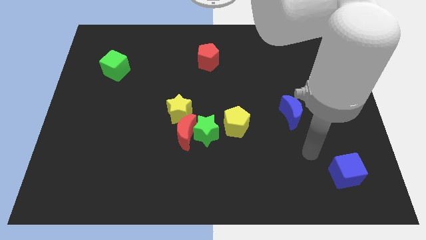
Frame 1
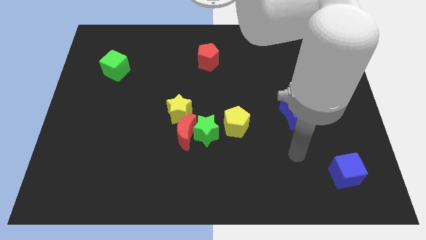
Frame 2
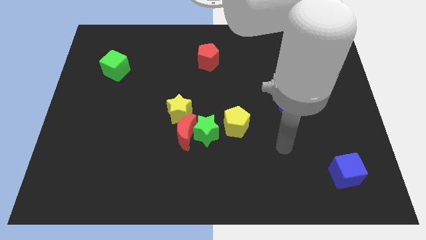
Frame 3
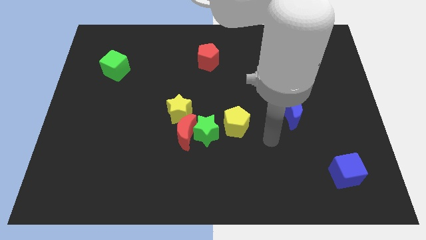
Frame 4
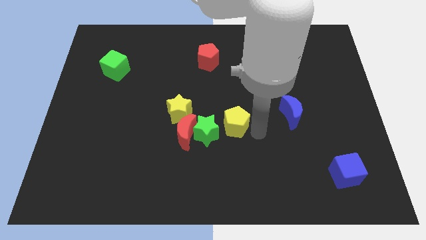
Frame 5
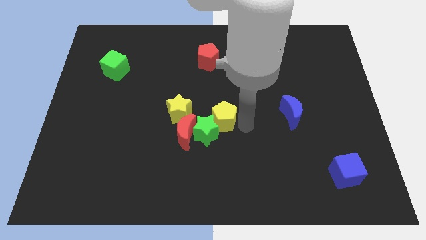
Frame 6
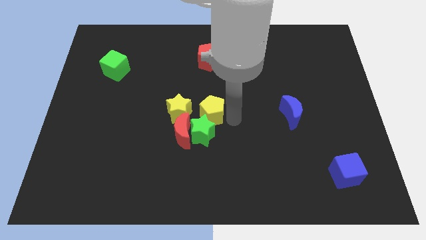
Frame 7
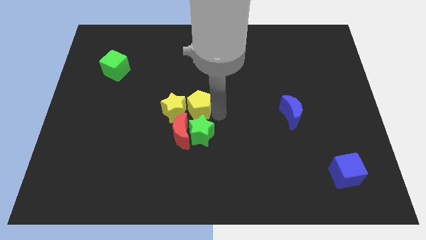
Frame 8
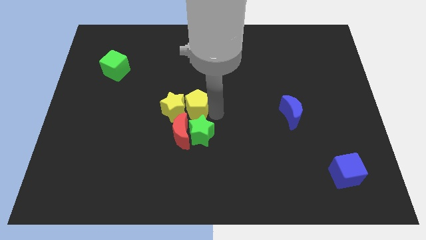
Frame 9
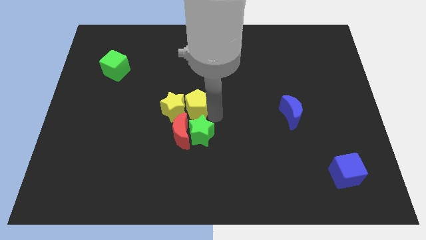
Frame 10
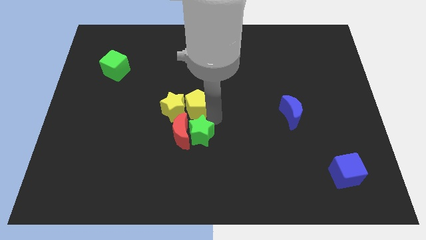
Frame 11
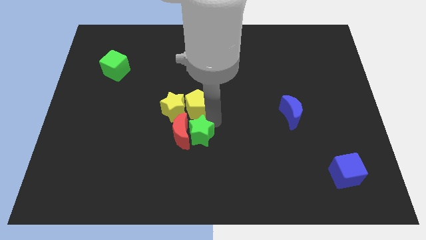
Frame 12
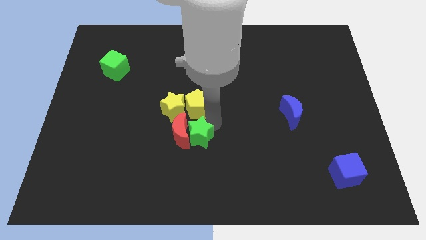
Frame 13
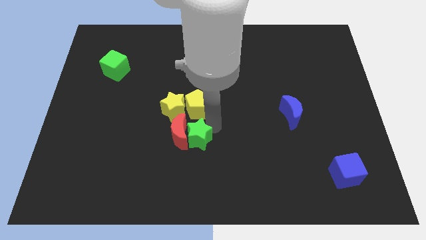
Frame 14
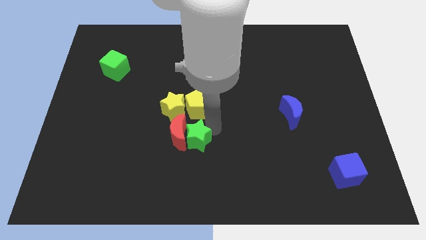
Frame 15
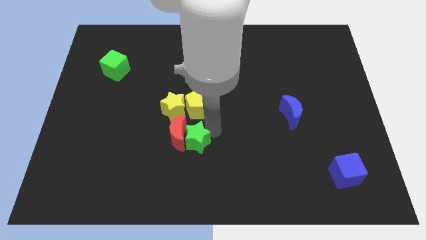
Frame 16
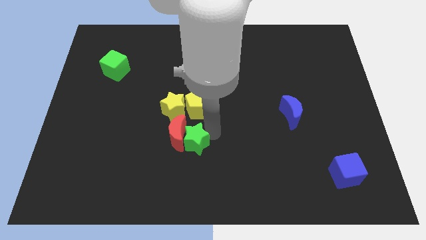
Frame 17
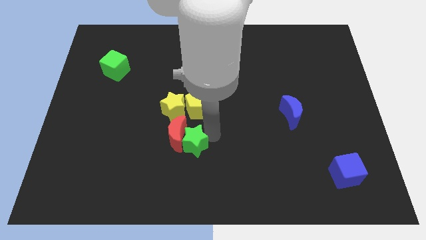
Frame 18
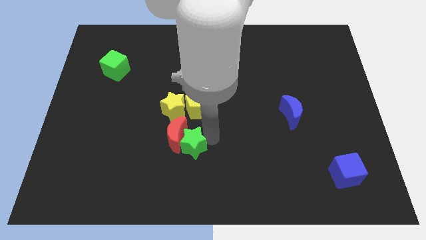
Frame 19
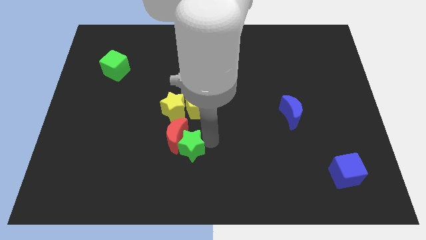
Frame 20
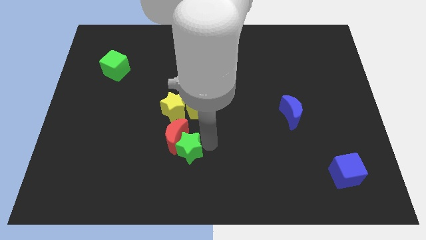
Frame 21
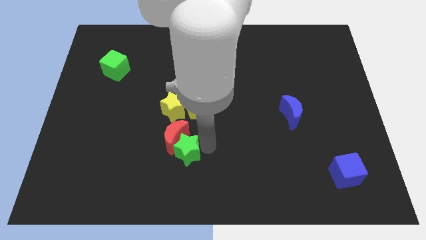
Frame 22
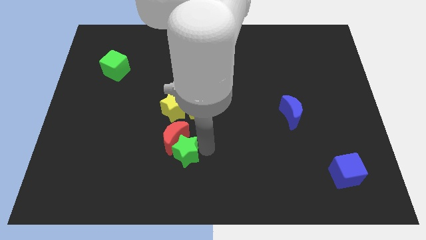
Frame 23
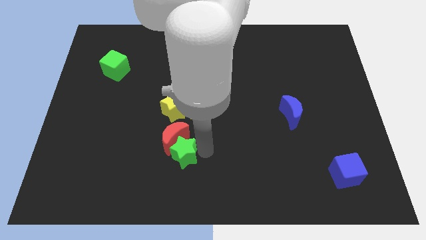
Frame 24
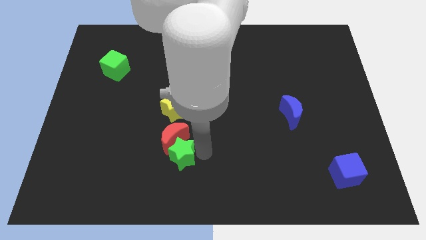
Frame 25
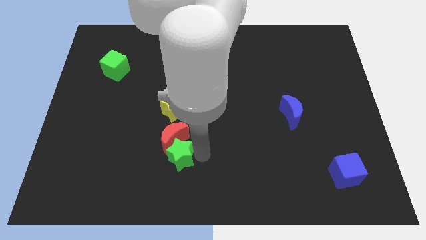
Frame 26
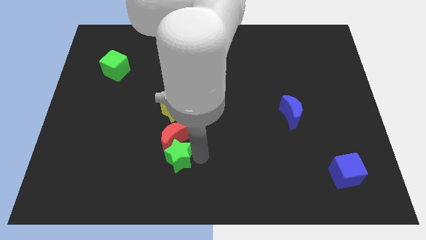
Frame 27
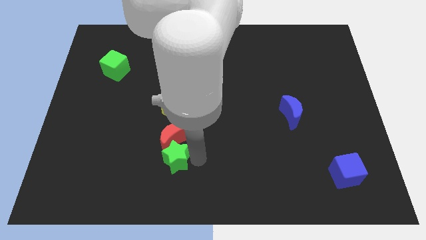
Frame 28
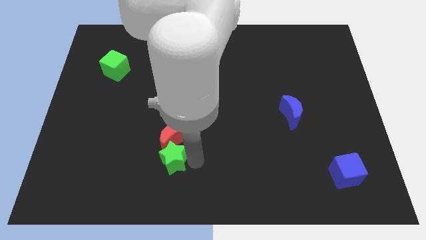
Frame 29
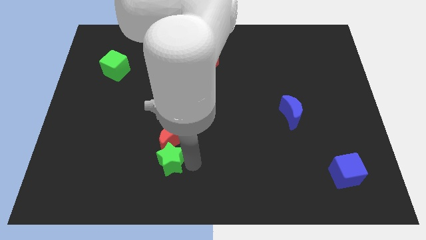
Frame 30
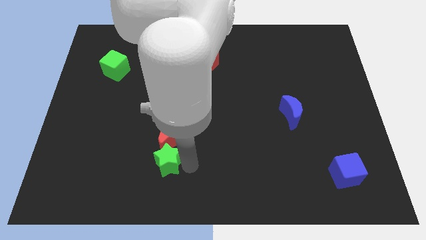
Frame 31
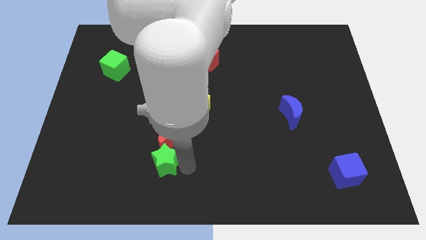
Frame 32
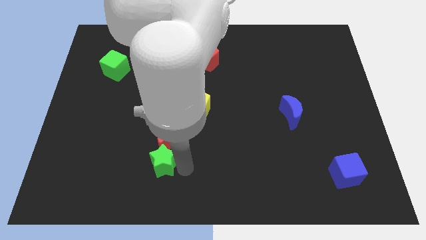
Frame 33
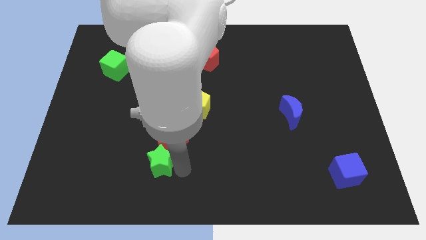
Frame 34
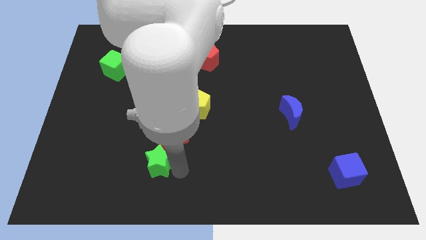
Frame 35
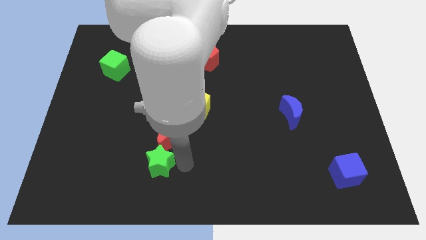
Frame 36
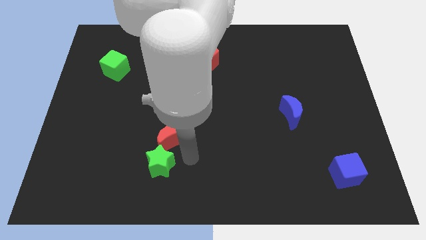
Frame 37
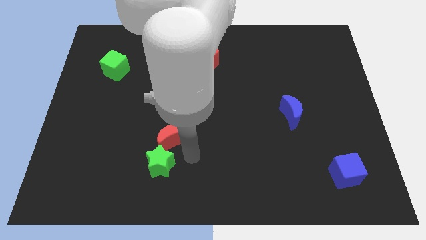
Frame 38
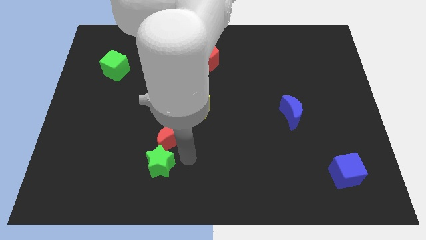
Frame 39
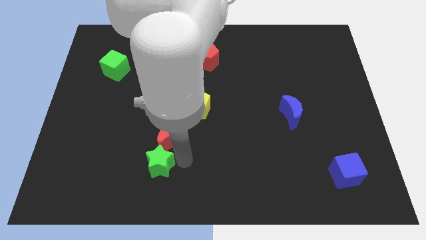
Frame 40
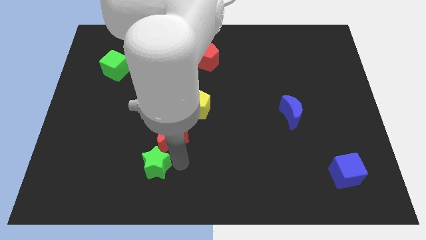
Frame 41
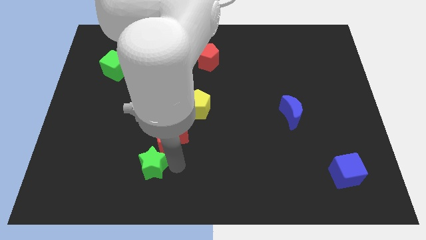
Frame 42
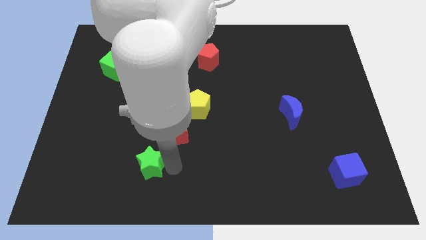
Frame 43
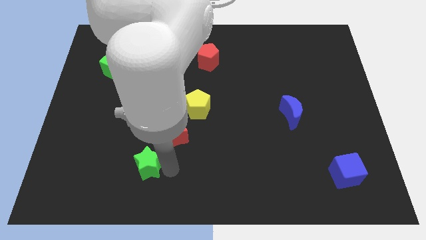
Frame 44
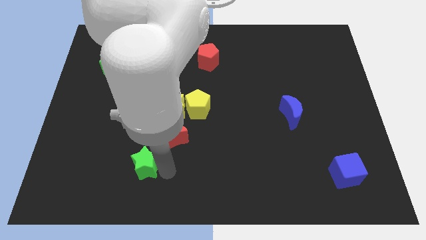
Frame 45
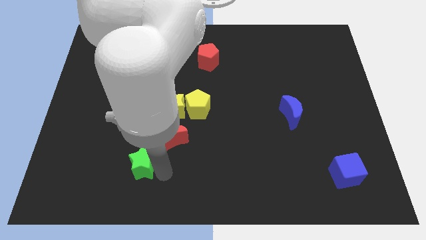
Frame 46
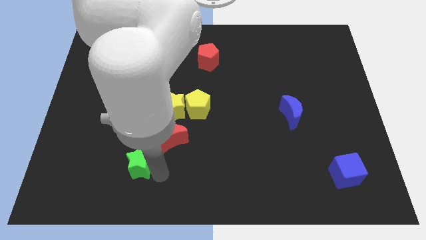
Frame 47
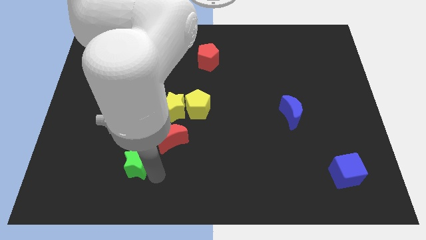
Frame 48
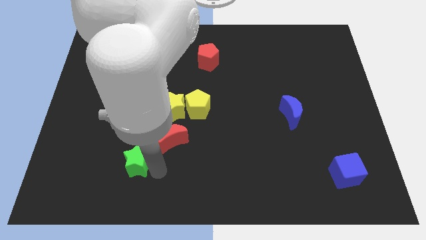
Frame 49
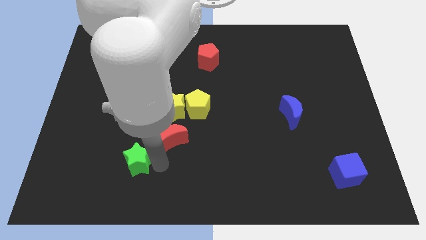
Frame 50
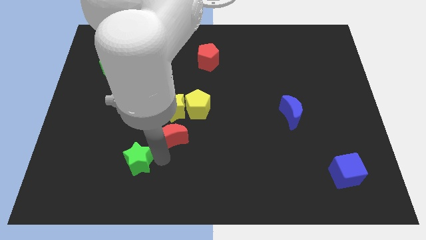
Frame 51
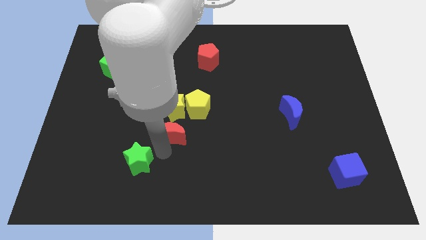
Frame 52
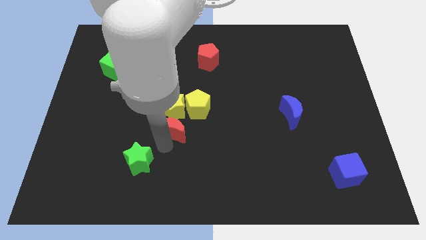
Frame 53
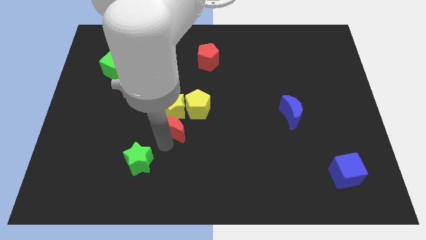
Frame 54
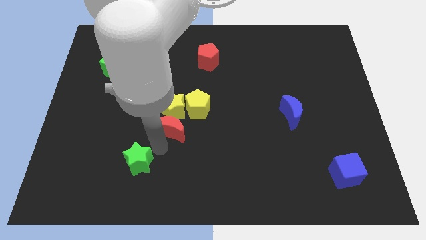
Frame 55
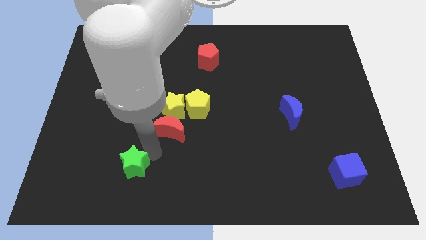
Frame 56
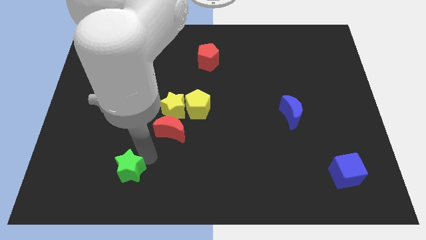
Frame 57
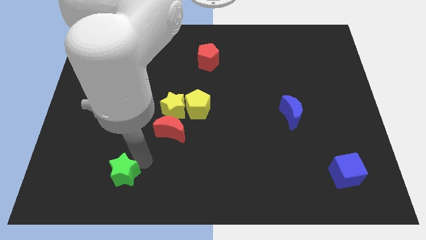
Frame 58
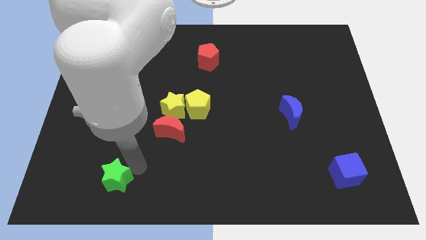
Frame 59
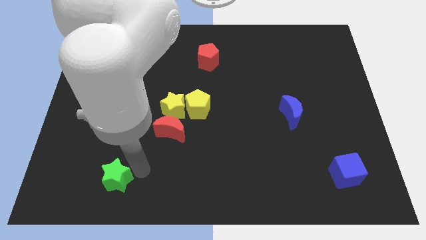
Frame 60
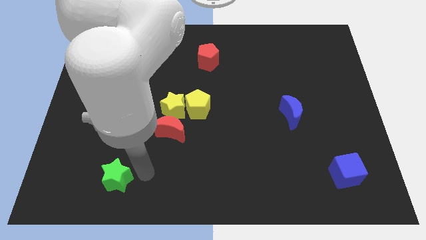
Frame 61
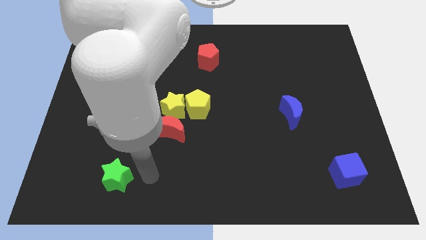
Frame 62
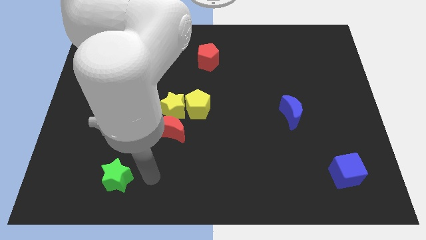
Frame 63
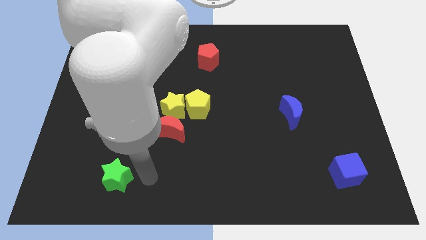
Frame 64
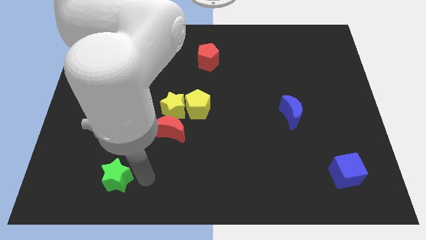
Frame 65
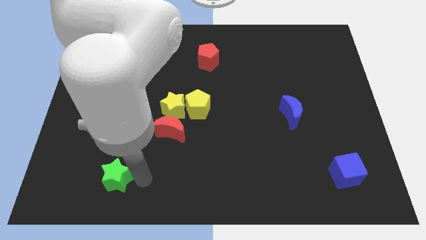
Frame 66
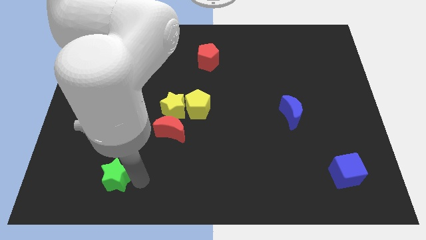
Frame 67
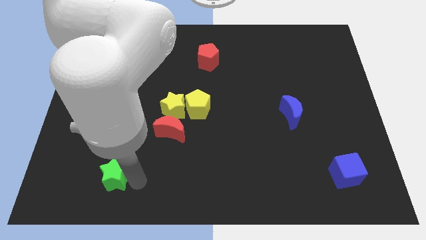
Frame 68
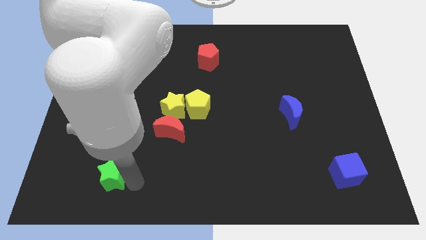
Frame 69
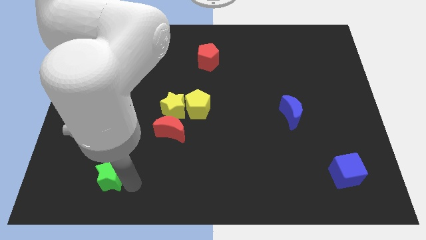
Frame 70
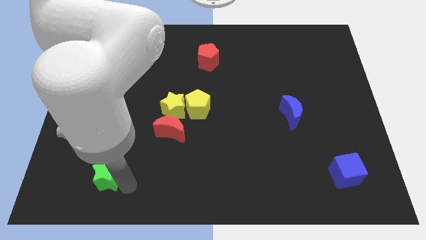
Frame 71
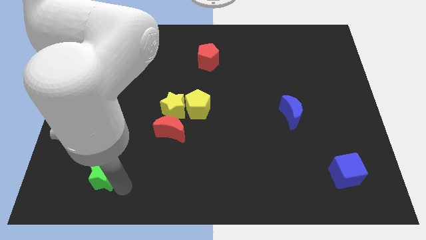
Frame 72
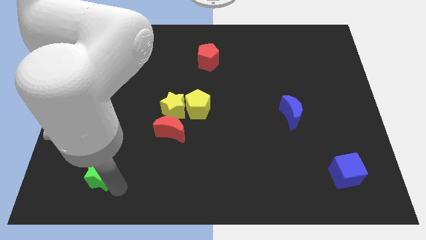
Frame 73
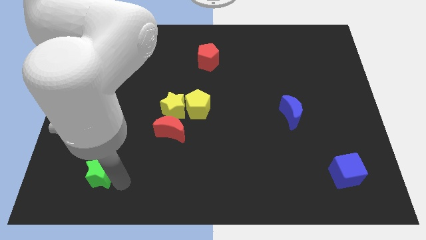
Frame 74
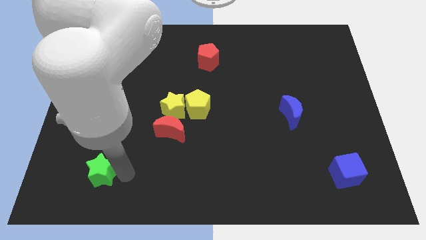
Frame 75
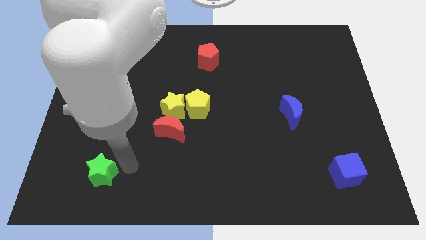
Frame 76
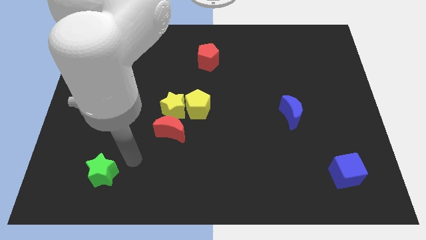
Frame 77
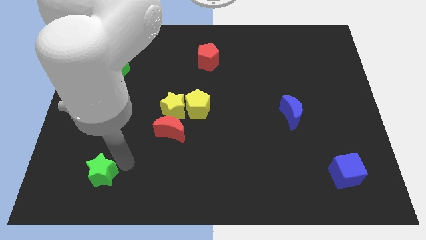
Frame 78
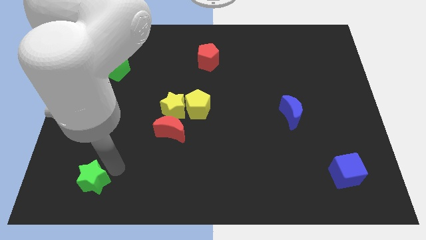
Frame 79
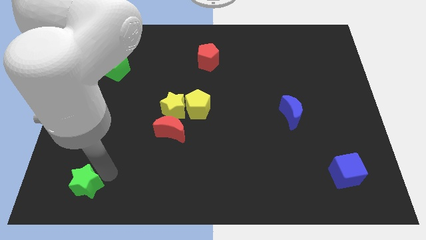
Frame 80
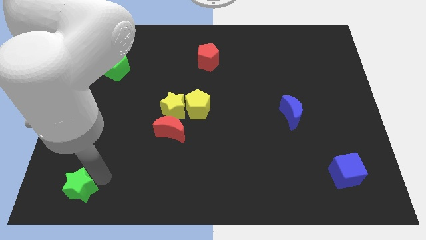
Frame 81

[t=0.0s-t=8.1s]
push the green star to the bottom left of the board
